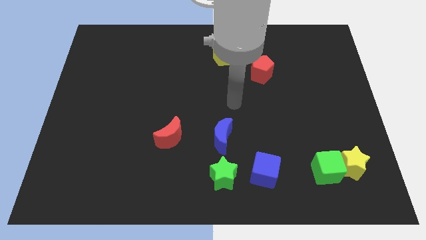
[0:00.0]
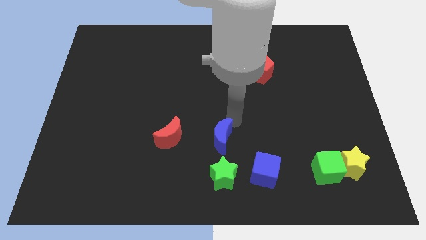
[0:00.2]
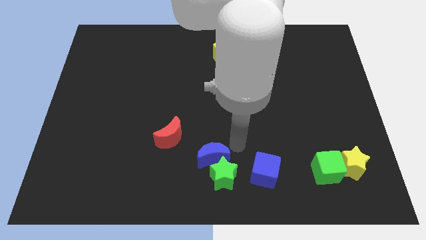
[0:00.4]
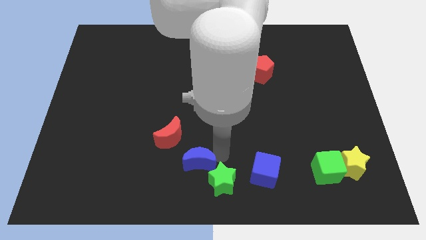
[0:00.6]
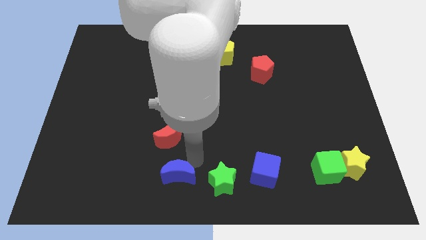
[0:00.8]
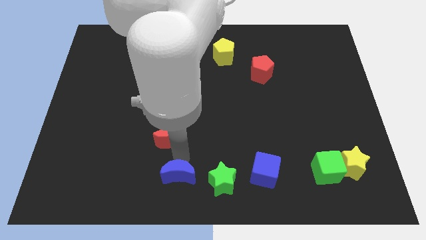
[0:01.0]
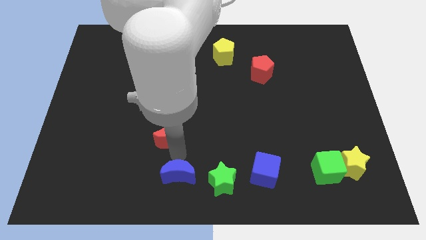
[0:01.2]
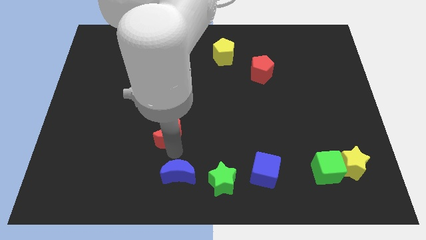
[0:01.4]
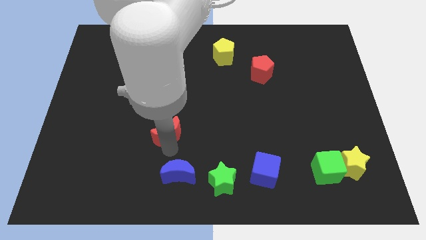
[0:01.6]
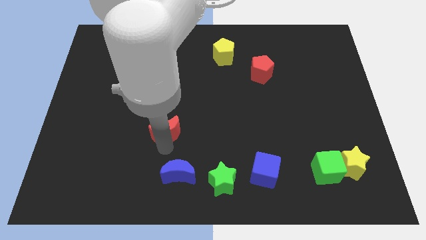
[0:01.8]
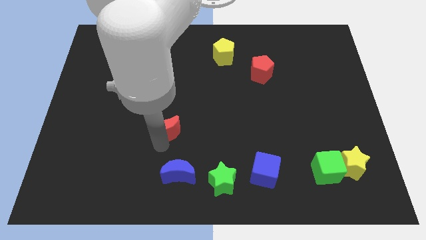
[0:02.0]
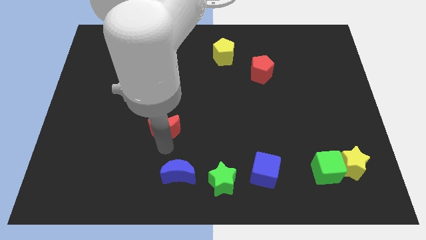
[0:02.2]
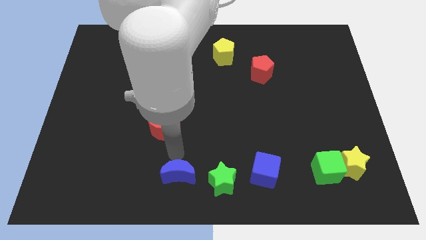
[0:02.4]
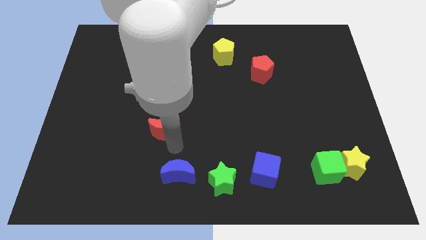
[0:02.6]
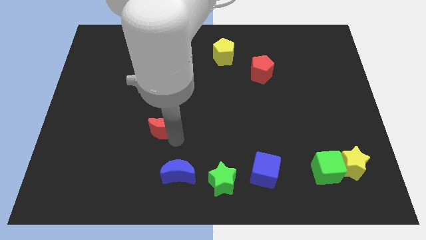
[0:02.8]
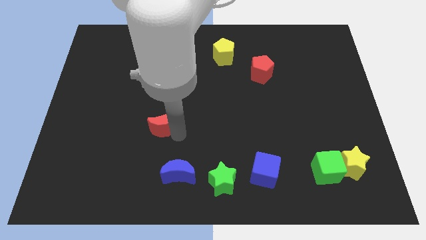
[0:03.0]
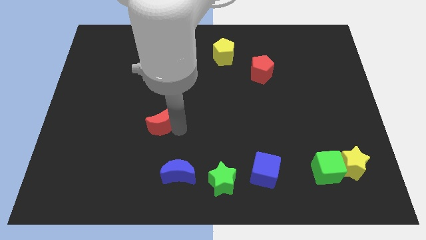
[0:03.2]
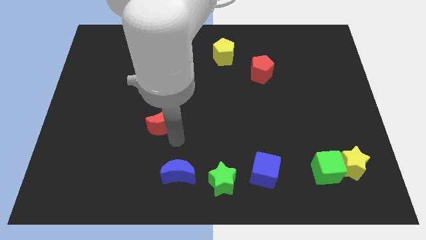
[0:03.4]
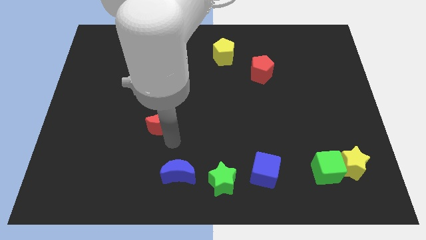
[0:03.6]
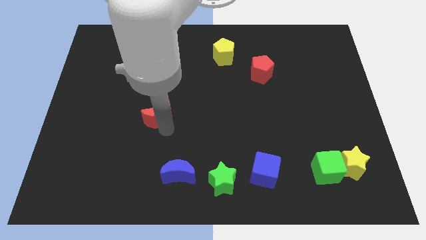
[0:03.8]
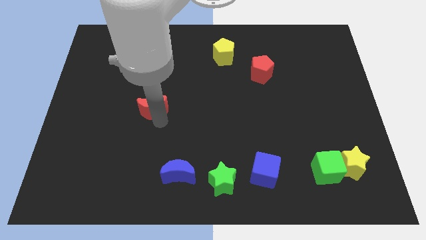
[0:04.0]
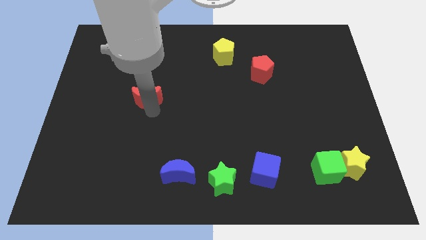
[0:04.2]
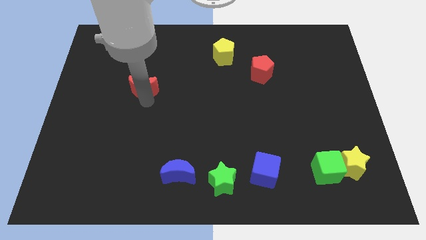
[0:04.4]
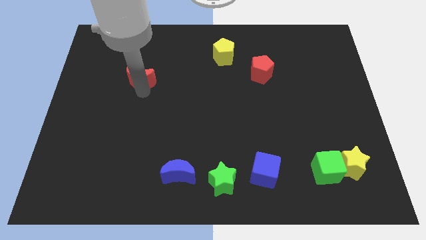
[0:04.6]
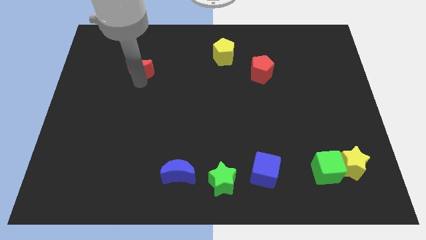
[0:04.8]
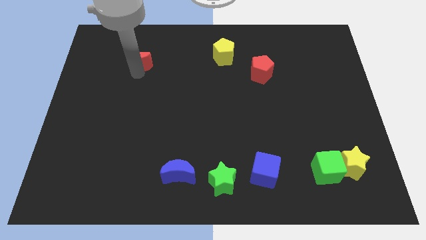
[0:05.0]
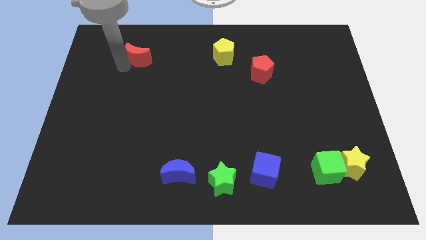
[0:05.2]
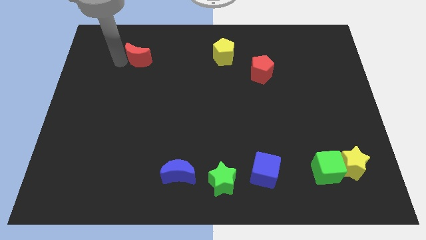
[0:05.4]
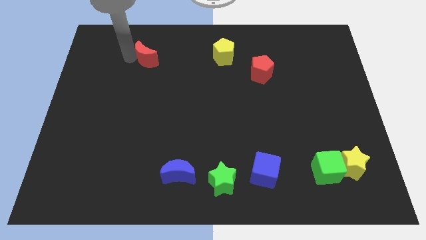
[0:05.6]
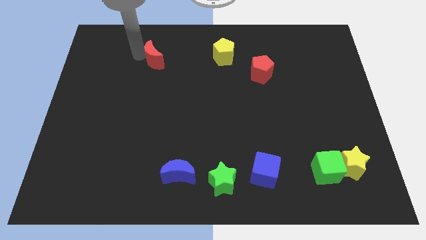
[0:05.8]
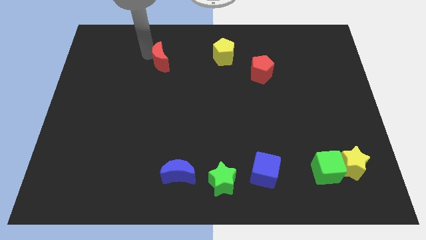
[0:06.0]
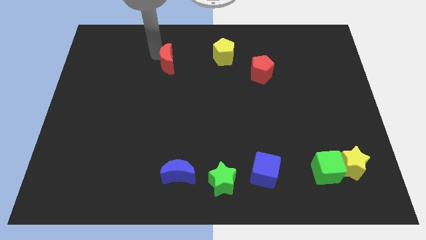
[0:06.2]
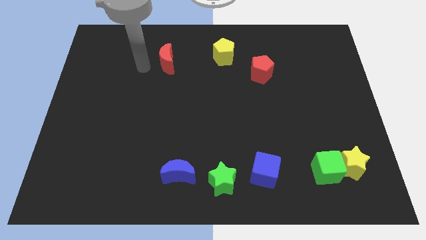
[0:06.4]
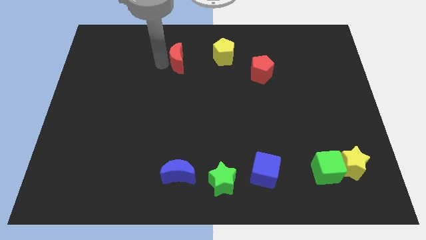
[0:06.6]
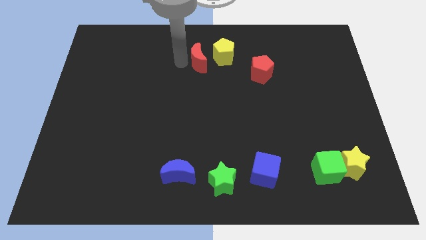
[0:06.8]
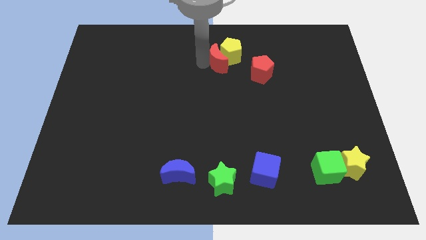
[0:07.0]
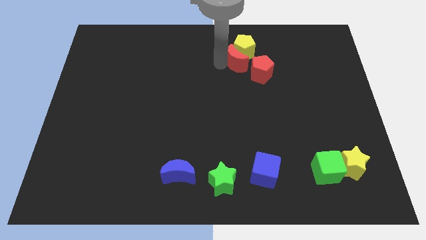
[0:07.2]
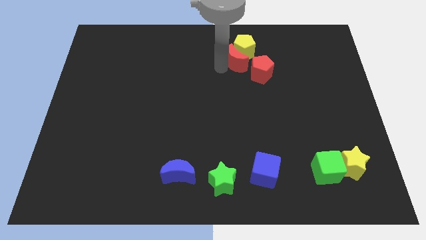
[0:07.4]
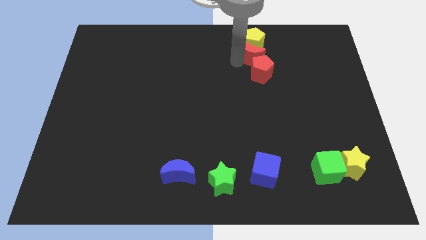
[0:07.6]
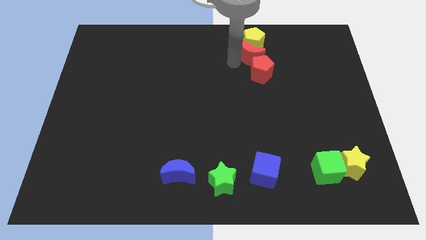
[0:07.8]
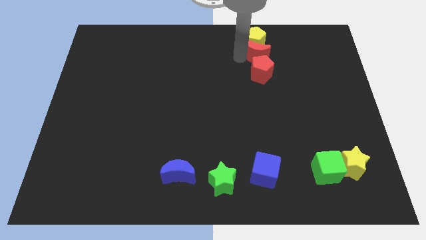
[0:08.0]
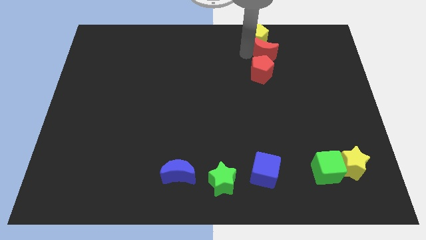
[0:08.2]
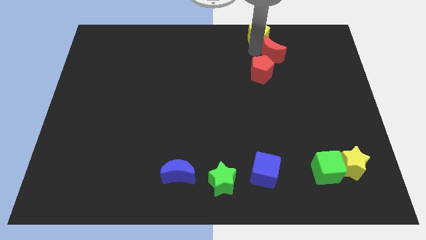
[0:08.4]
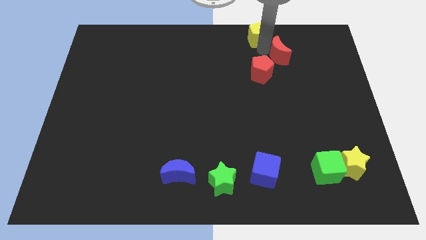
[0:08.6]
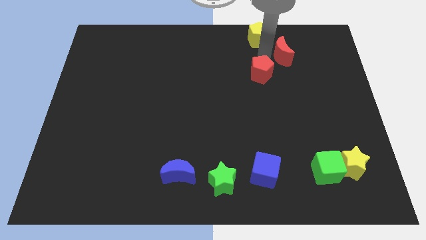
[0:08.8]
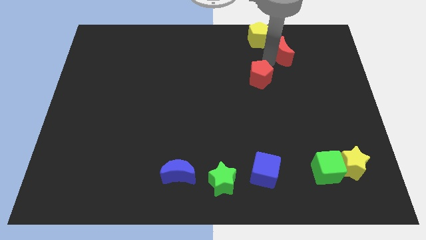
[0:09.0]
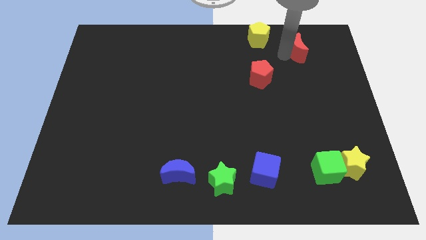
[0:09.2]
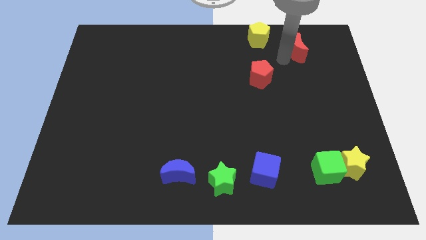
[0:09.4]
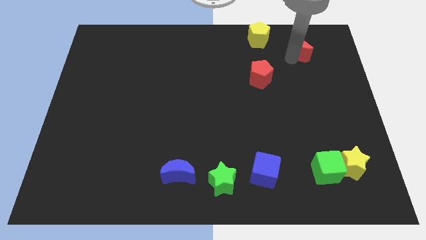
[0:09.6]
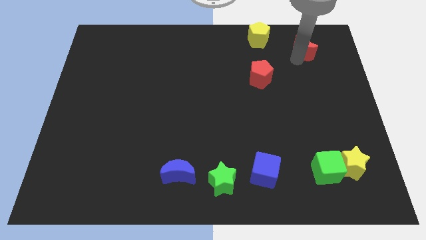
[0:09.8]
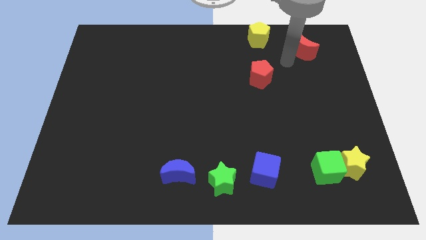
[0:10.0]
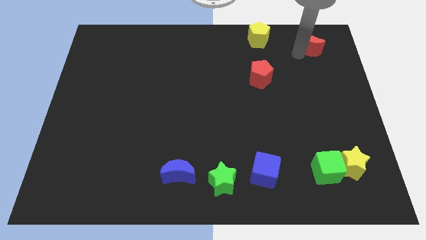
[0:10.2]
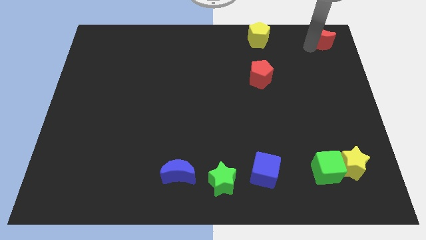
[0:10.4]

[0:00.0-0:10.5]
push the red moon to the top right of the board
